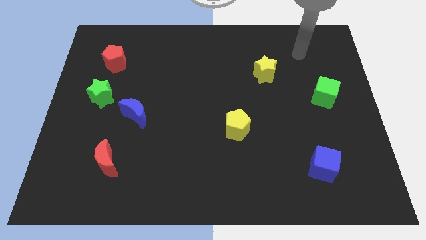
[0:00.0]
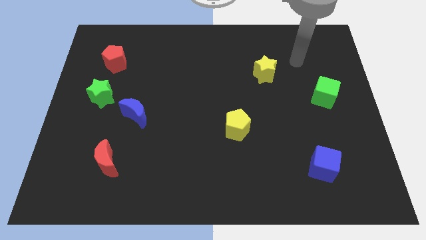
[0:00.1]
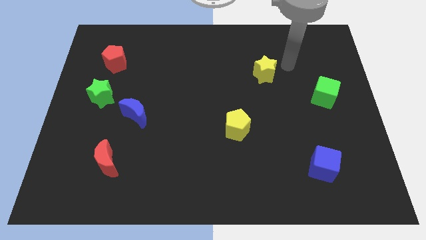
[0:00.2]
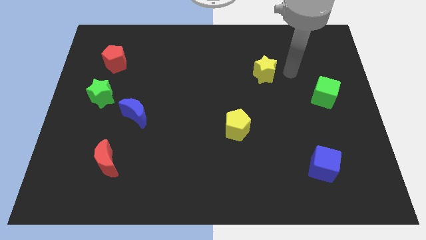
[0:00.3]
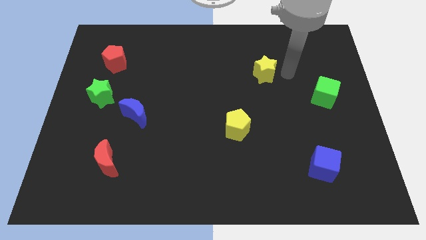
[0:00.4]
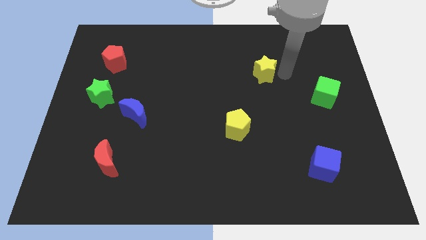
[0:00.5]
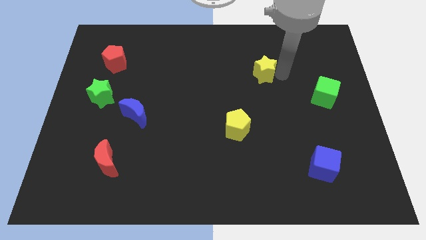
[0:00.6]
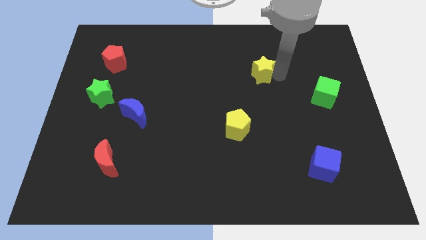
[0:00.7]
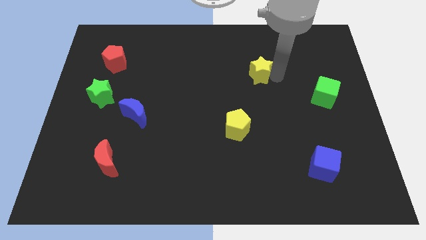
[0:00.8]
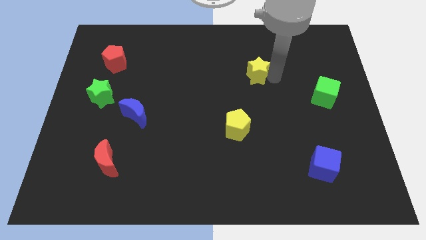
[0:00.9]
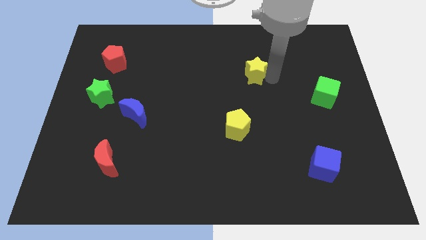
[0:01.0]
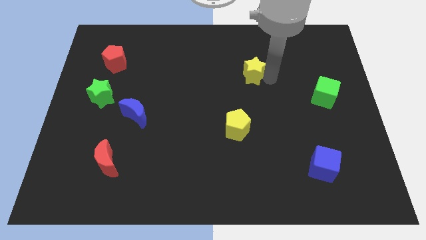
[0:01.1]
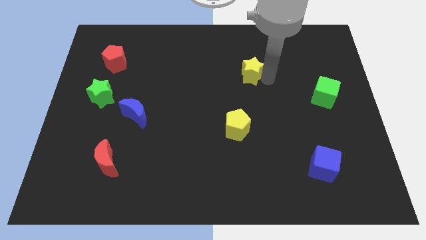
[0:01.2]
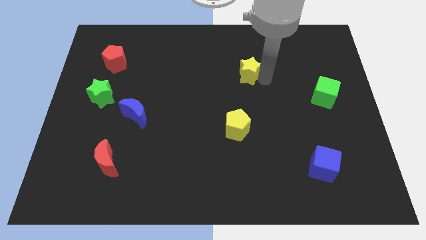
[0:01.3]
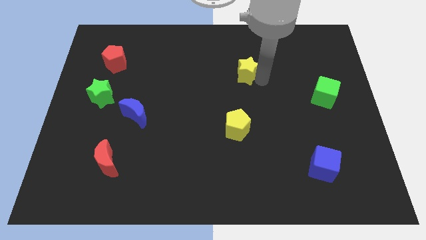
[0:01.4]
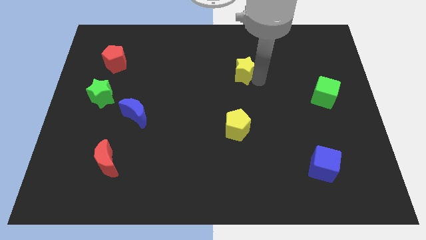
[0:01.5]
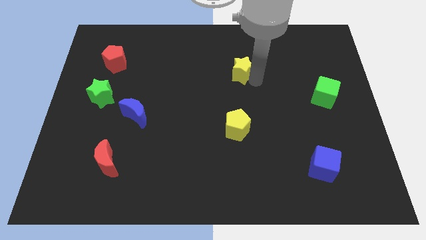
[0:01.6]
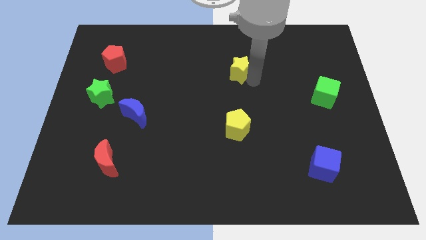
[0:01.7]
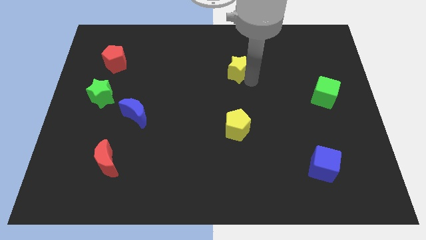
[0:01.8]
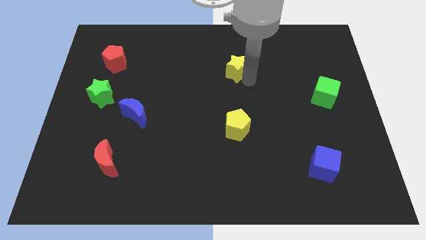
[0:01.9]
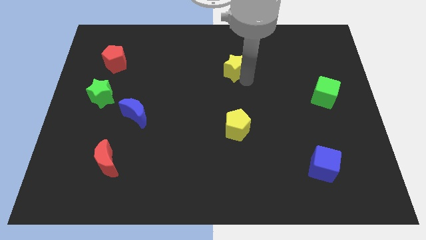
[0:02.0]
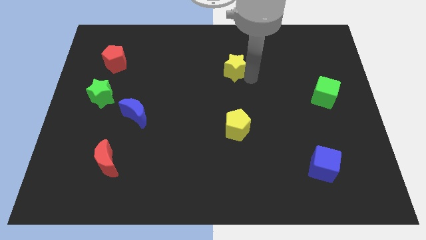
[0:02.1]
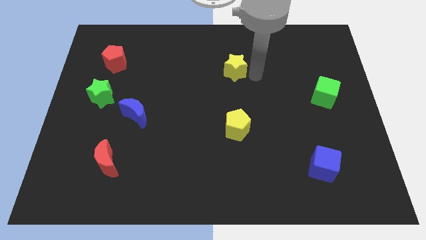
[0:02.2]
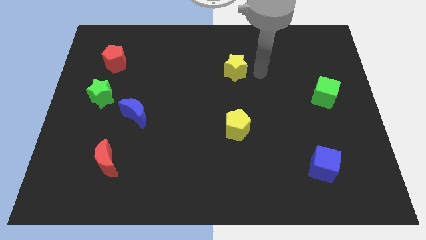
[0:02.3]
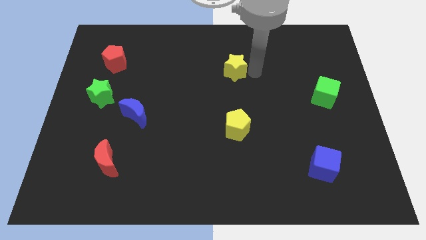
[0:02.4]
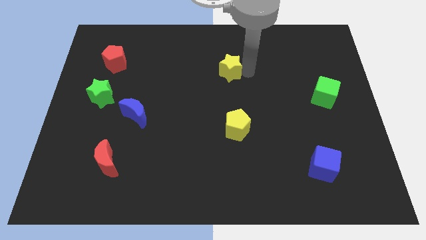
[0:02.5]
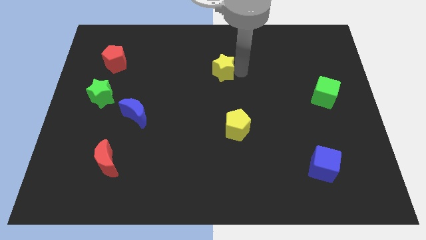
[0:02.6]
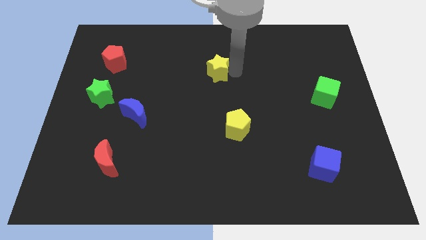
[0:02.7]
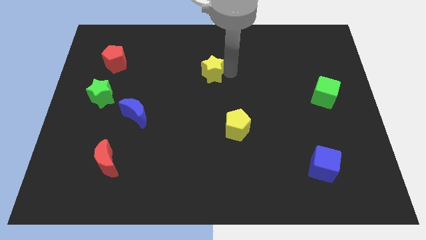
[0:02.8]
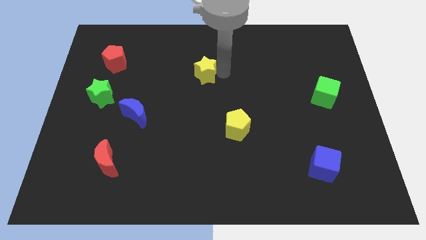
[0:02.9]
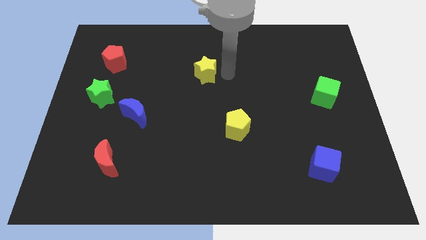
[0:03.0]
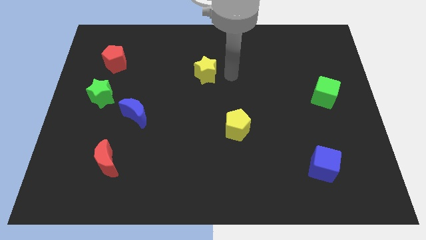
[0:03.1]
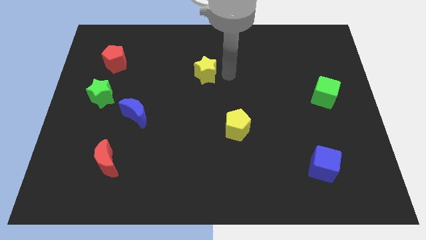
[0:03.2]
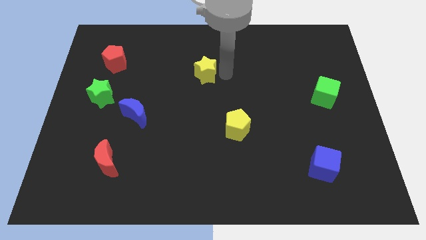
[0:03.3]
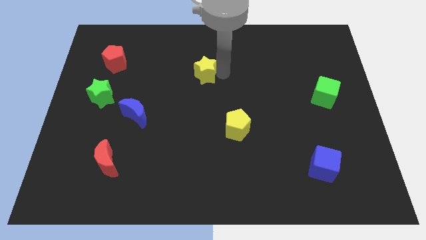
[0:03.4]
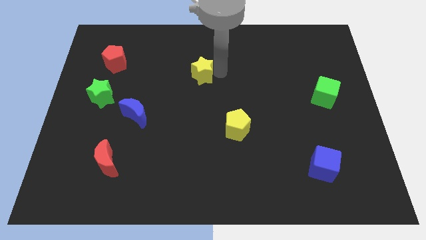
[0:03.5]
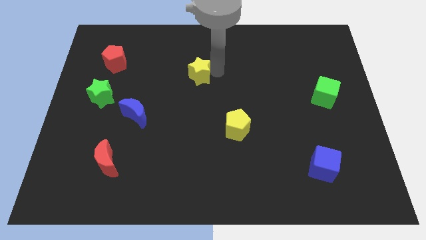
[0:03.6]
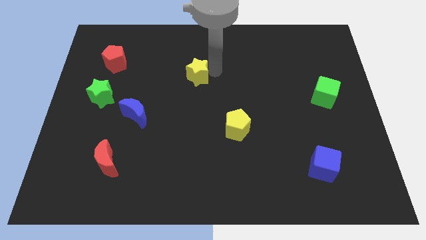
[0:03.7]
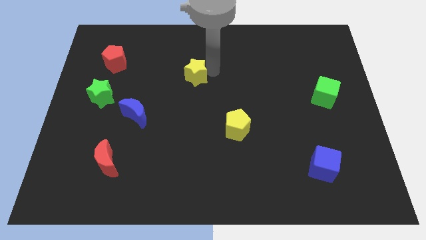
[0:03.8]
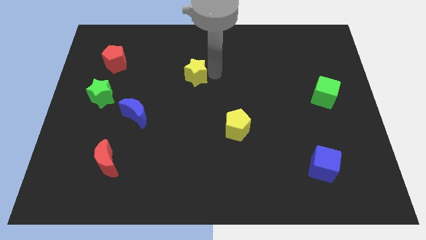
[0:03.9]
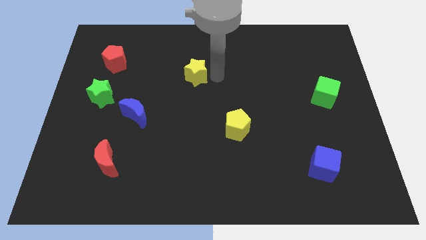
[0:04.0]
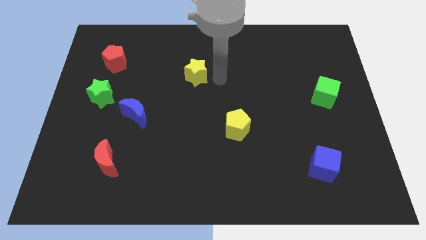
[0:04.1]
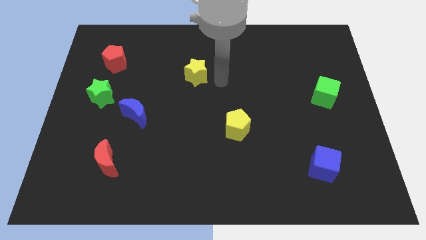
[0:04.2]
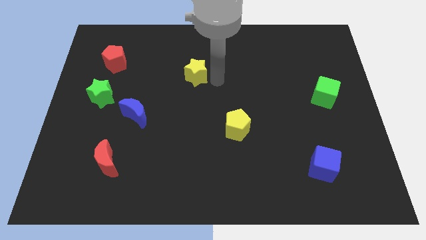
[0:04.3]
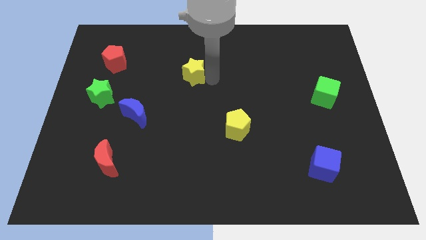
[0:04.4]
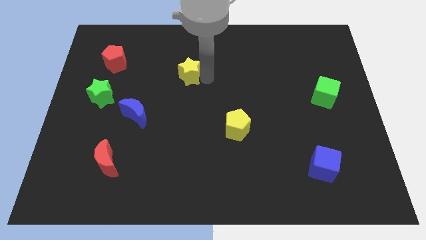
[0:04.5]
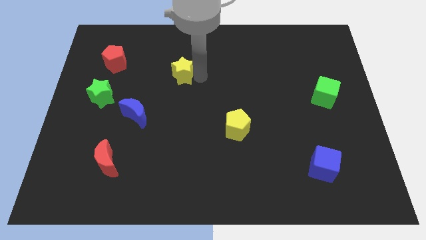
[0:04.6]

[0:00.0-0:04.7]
move the yellow star to the left

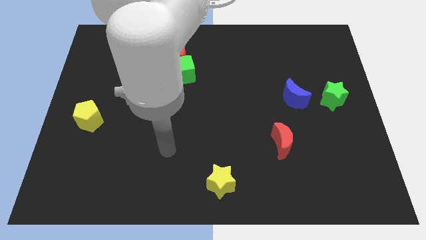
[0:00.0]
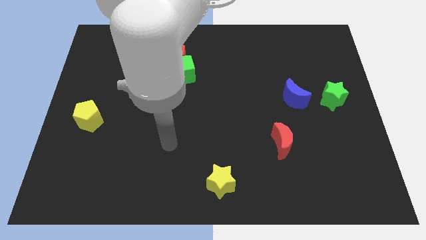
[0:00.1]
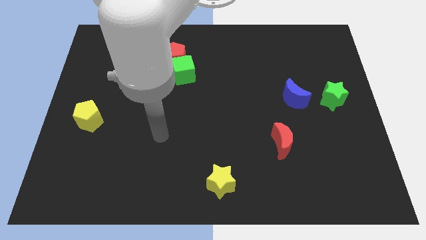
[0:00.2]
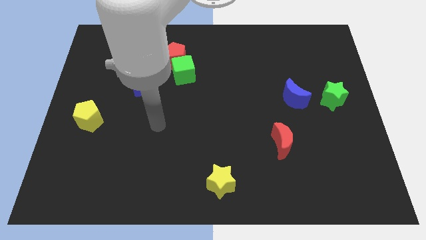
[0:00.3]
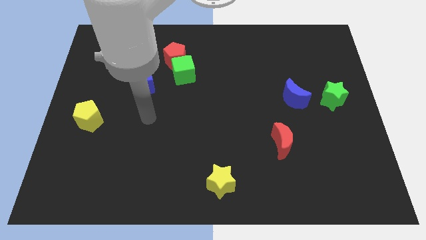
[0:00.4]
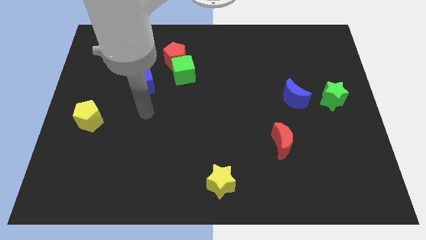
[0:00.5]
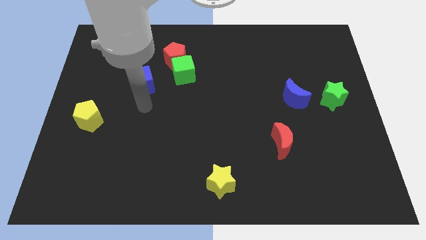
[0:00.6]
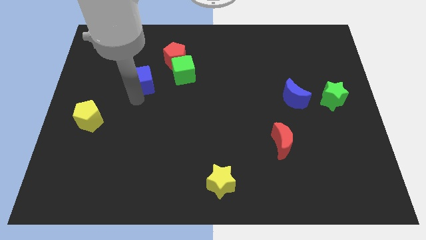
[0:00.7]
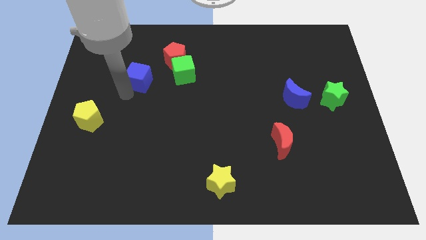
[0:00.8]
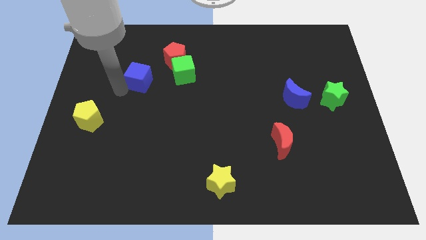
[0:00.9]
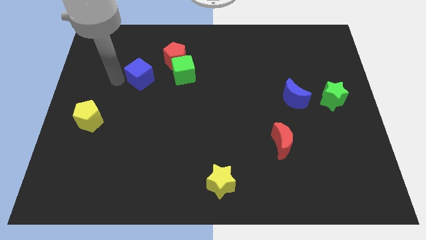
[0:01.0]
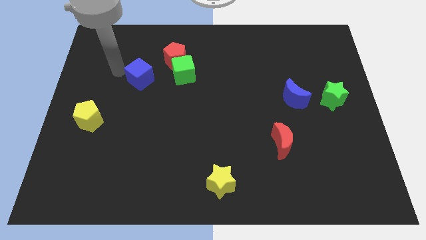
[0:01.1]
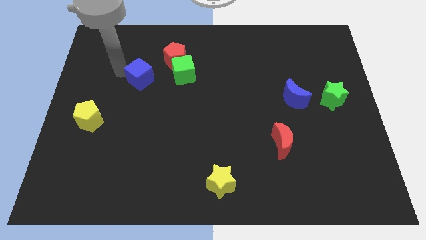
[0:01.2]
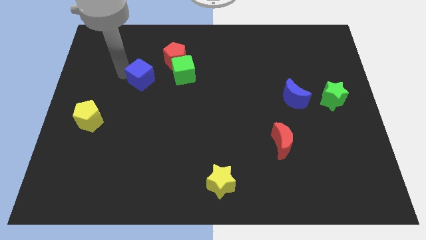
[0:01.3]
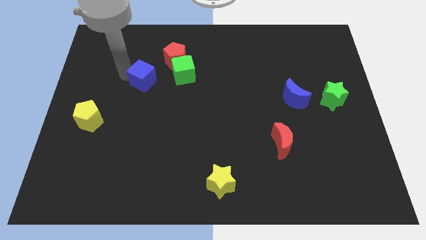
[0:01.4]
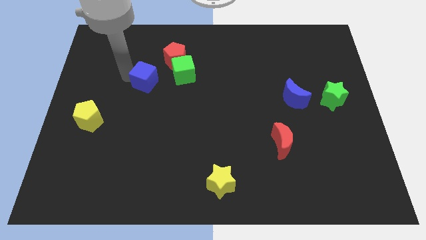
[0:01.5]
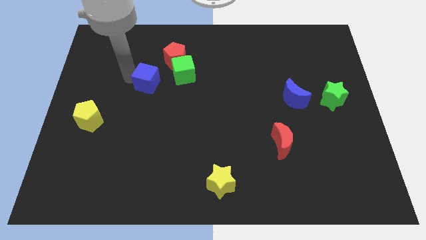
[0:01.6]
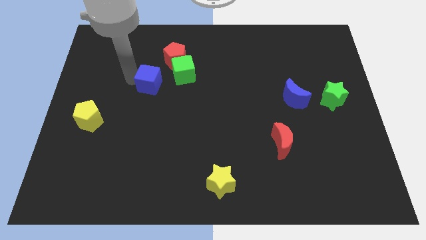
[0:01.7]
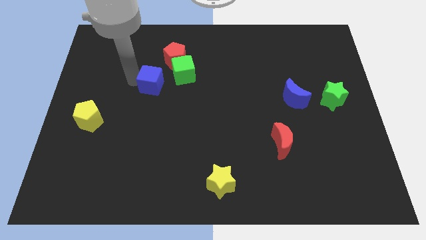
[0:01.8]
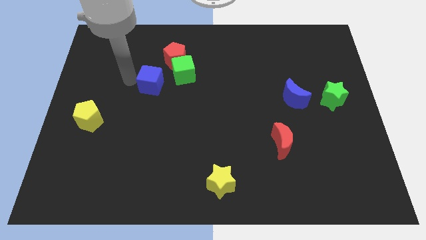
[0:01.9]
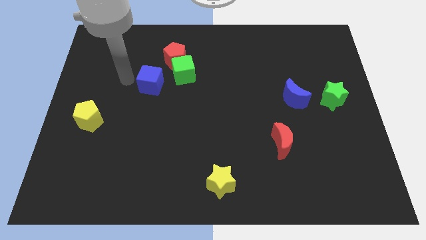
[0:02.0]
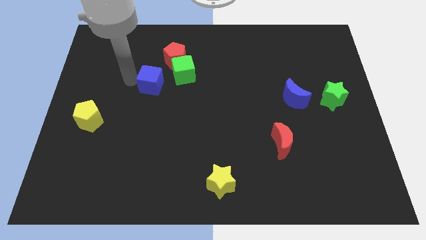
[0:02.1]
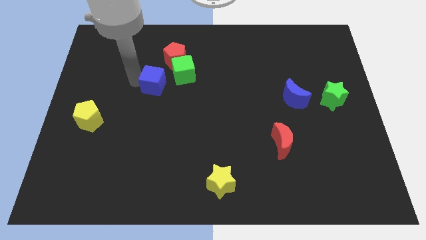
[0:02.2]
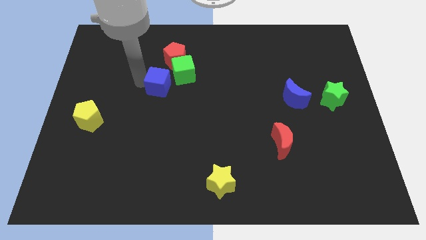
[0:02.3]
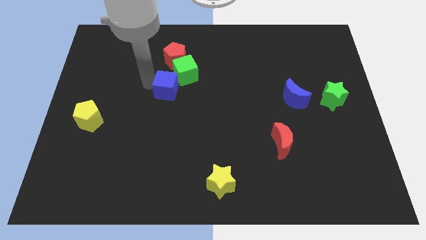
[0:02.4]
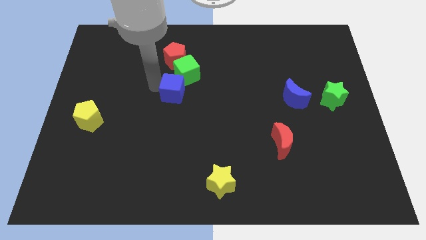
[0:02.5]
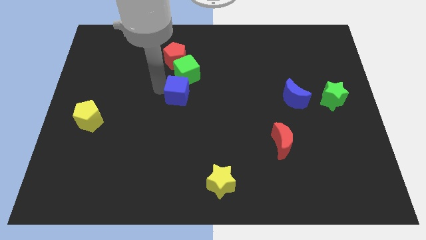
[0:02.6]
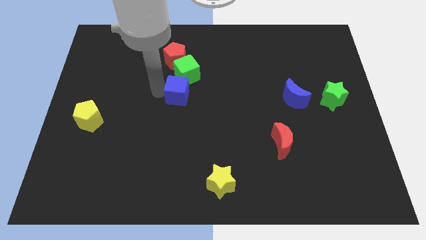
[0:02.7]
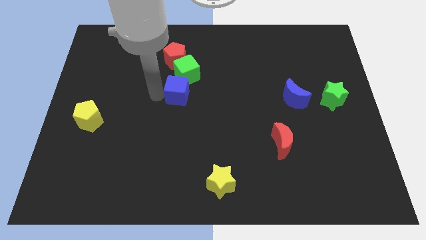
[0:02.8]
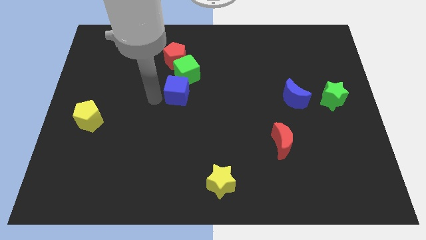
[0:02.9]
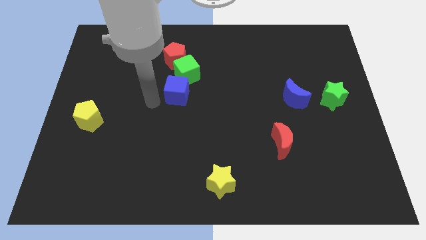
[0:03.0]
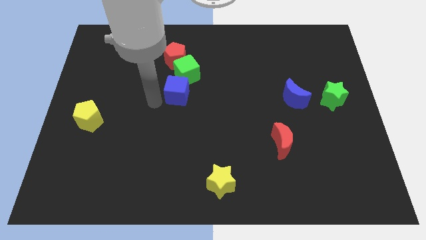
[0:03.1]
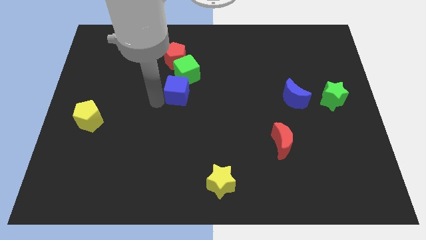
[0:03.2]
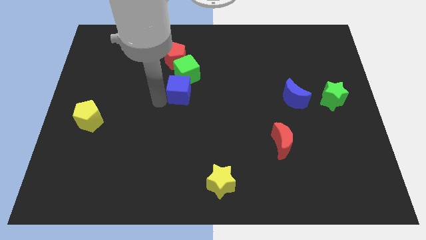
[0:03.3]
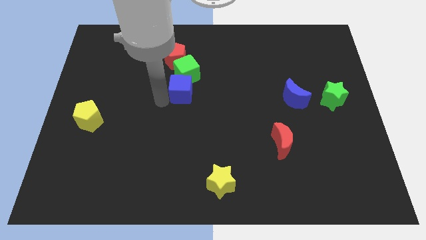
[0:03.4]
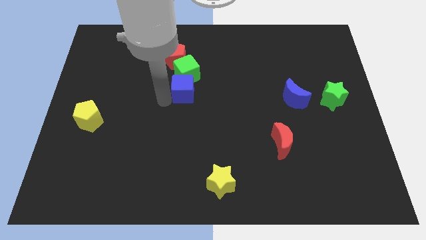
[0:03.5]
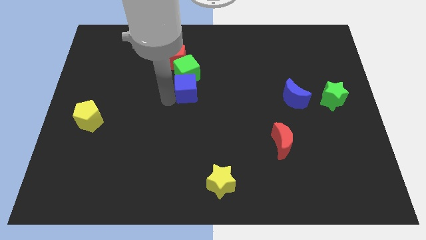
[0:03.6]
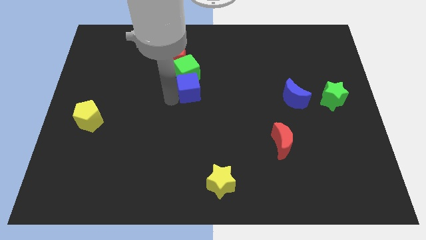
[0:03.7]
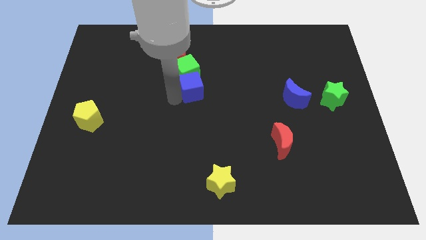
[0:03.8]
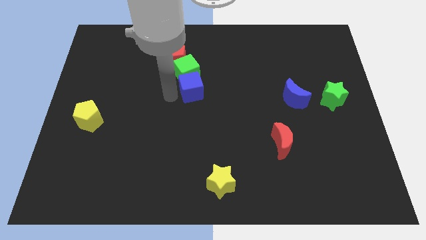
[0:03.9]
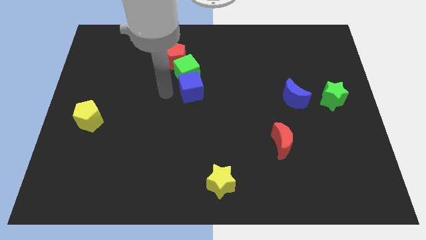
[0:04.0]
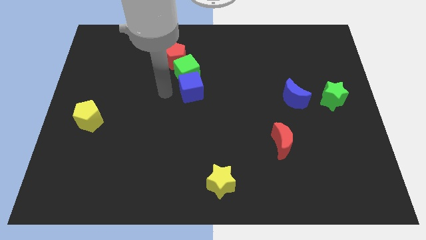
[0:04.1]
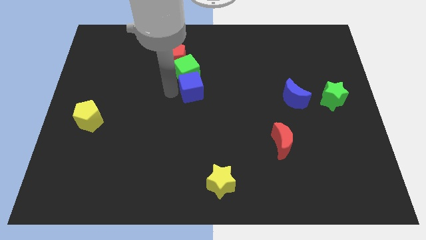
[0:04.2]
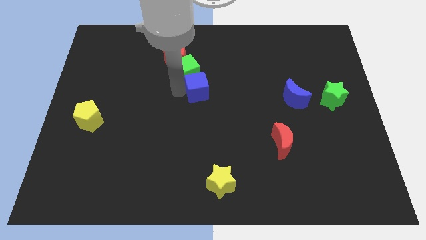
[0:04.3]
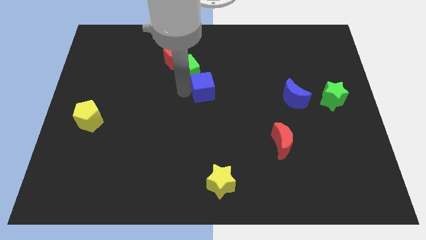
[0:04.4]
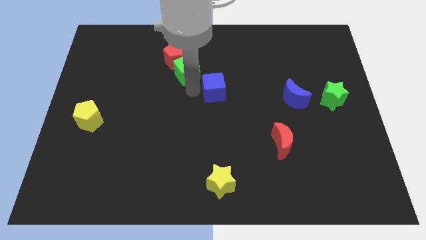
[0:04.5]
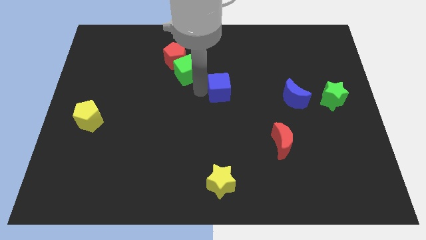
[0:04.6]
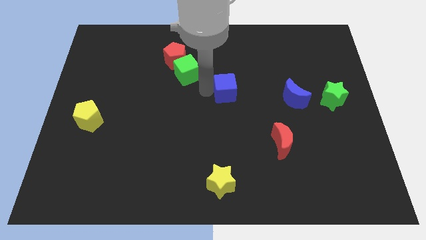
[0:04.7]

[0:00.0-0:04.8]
push the blue cube right
